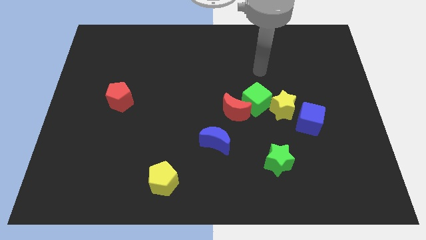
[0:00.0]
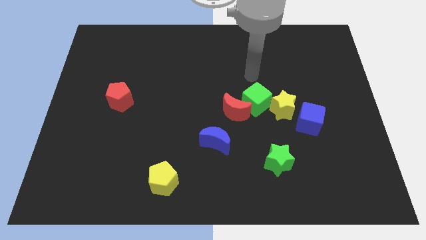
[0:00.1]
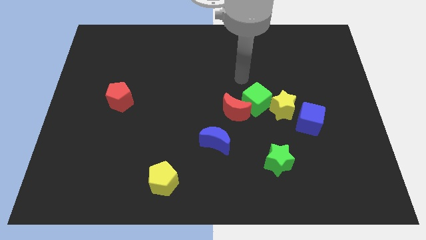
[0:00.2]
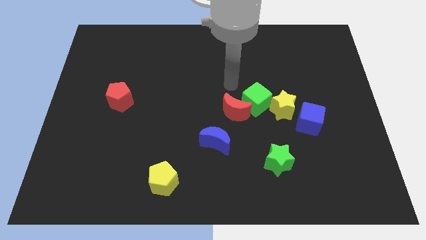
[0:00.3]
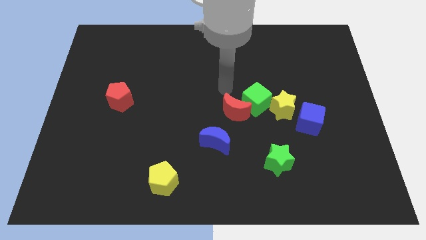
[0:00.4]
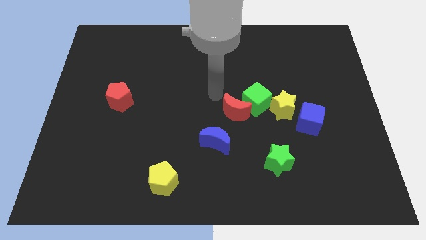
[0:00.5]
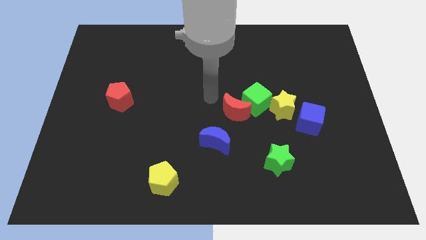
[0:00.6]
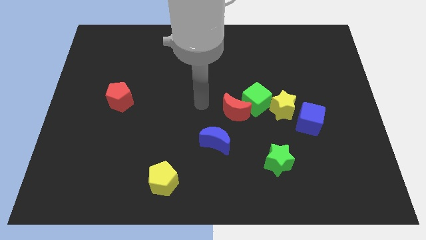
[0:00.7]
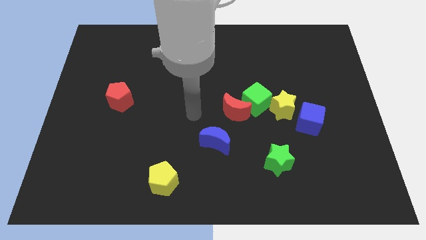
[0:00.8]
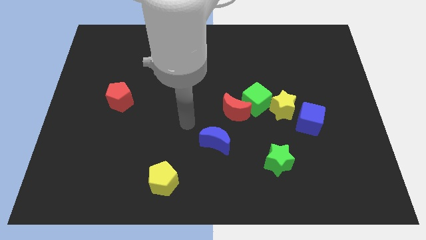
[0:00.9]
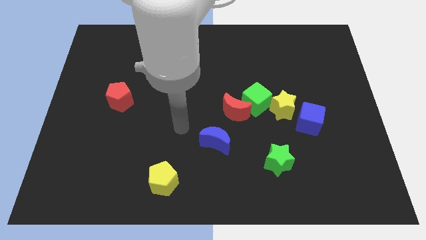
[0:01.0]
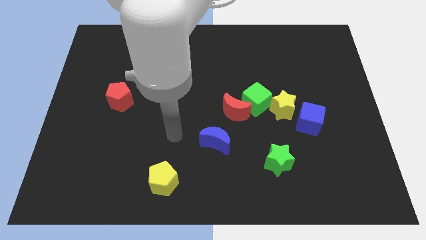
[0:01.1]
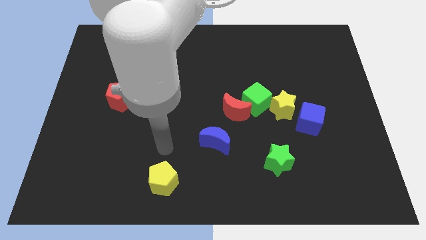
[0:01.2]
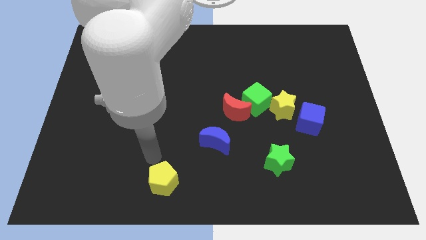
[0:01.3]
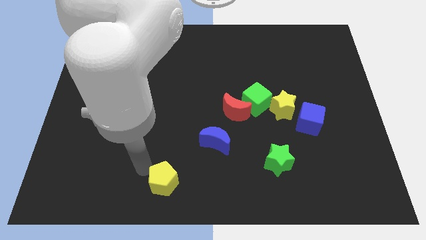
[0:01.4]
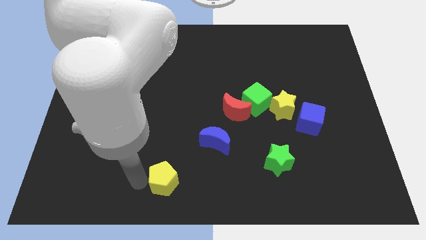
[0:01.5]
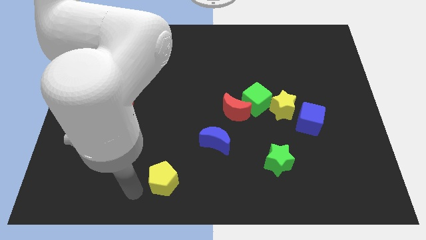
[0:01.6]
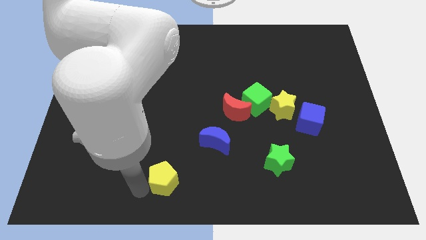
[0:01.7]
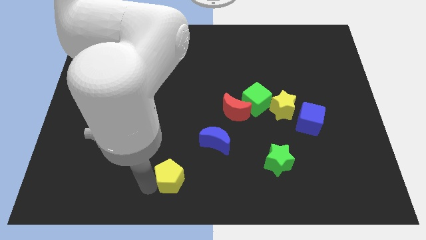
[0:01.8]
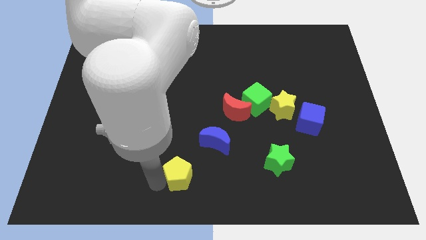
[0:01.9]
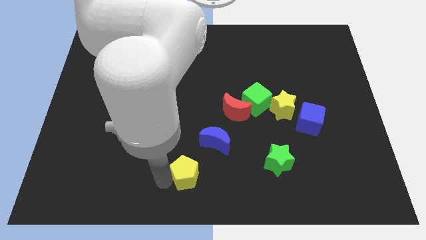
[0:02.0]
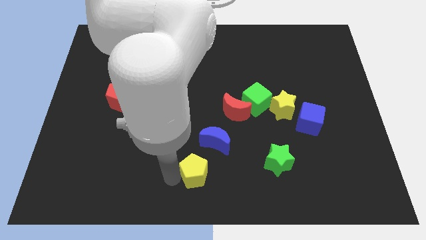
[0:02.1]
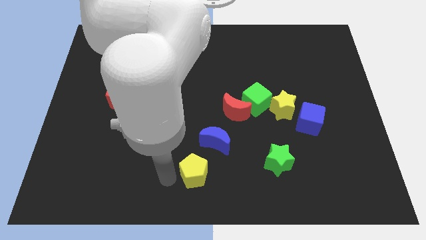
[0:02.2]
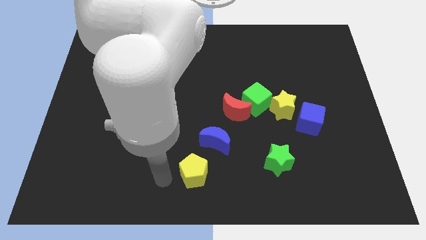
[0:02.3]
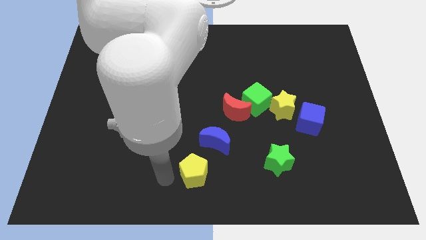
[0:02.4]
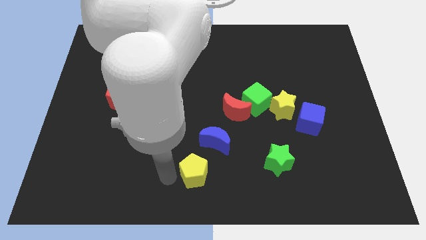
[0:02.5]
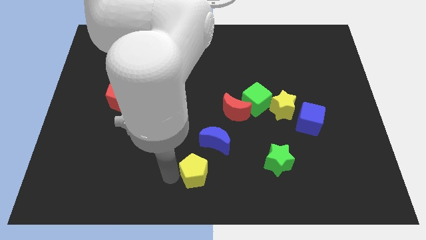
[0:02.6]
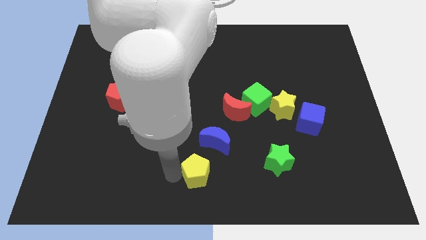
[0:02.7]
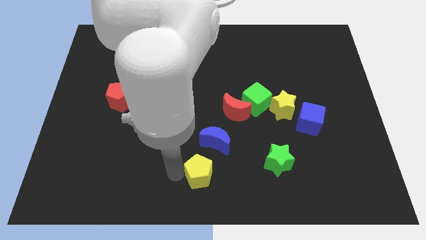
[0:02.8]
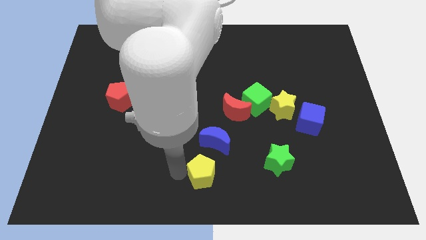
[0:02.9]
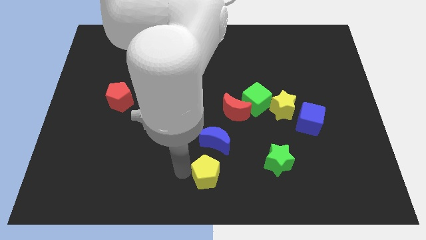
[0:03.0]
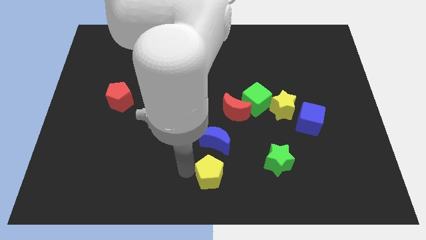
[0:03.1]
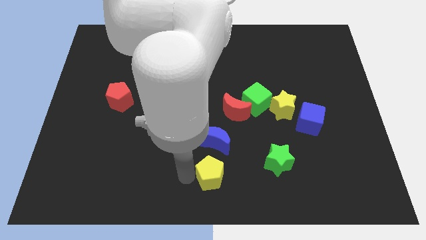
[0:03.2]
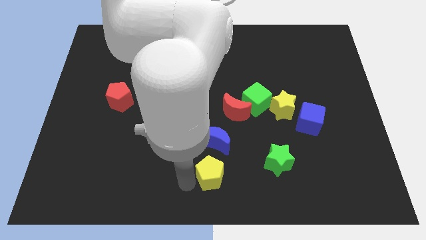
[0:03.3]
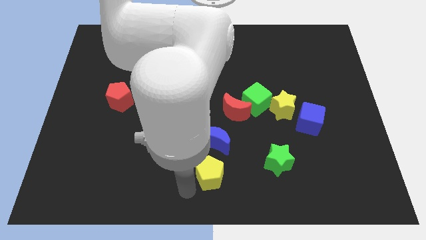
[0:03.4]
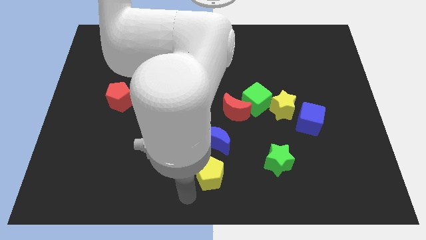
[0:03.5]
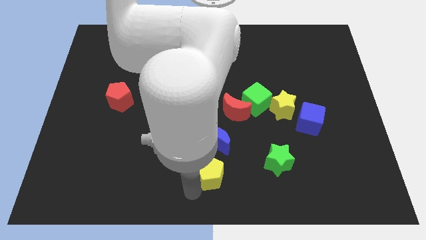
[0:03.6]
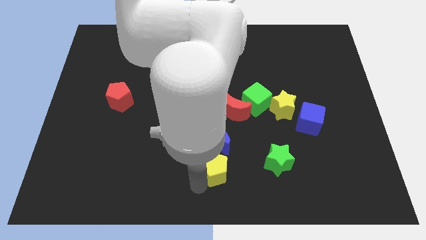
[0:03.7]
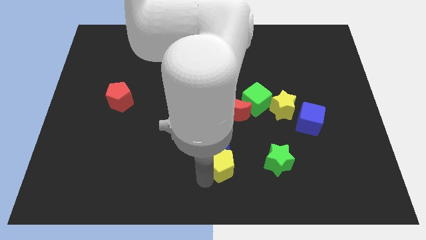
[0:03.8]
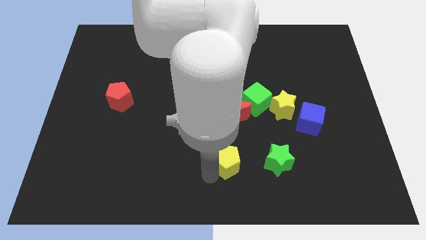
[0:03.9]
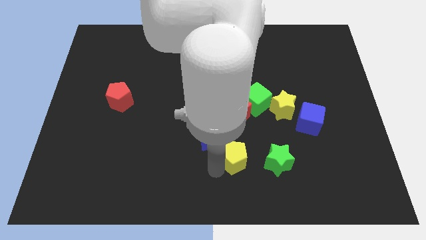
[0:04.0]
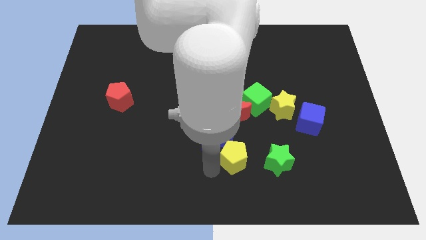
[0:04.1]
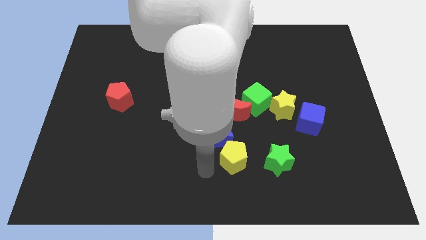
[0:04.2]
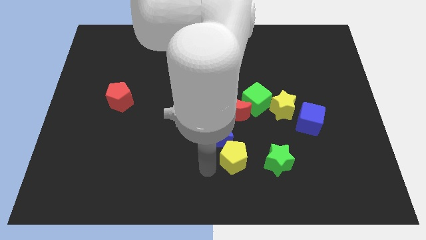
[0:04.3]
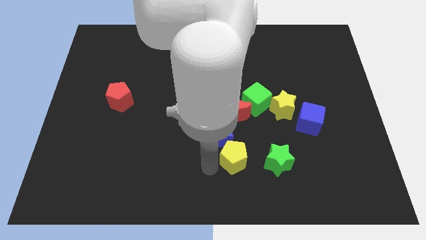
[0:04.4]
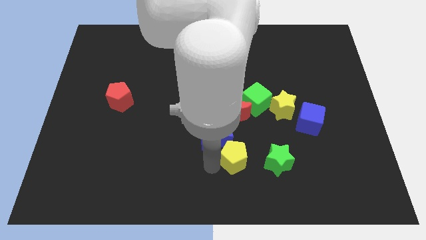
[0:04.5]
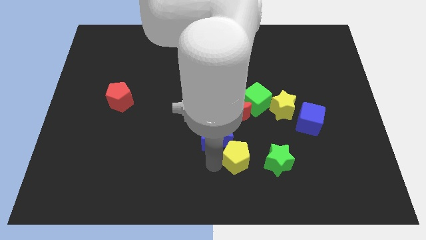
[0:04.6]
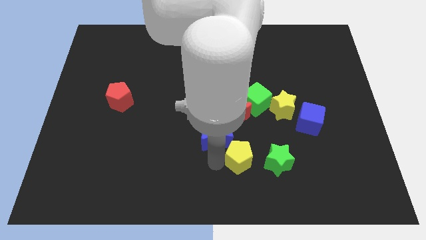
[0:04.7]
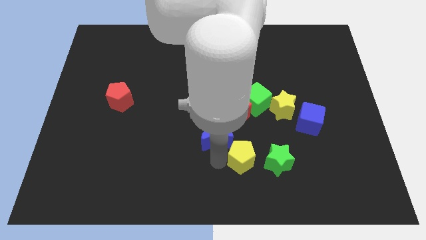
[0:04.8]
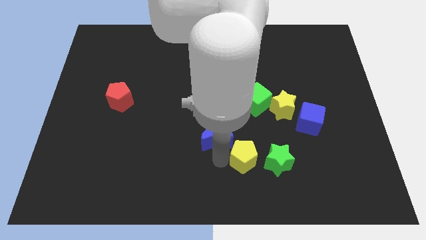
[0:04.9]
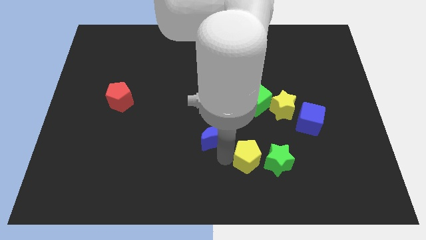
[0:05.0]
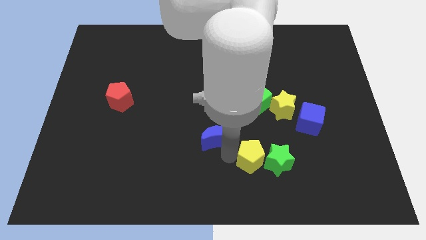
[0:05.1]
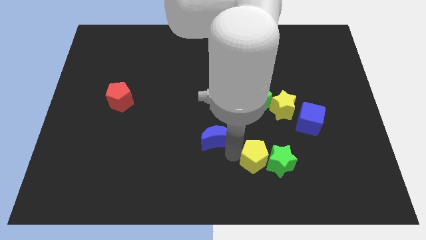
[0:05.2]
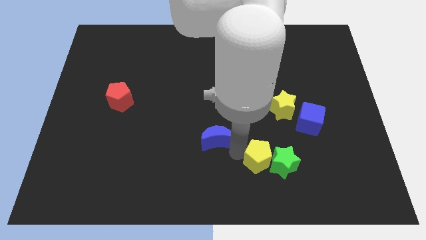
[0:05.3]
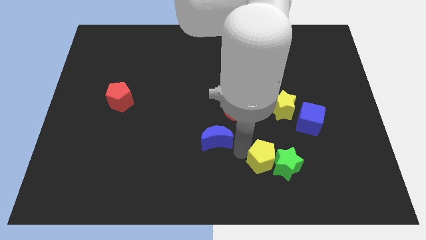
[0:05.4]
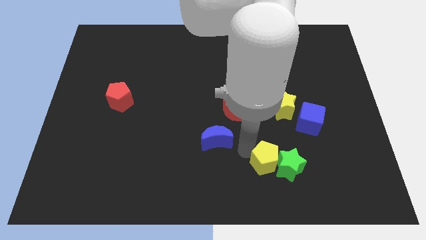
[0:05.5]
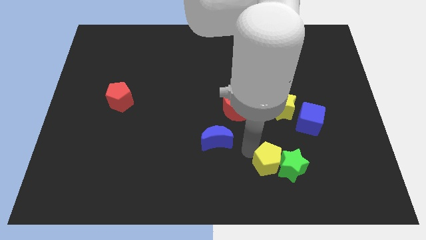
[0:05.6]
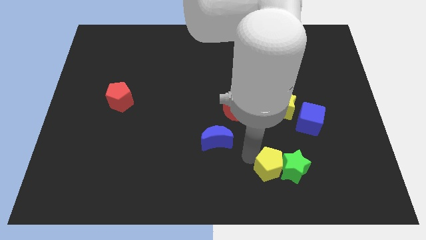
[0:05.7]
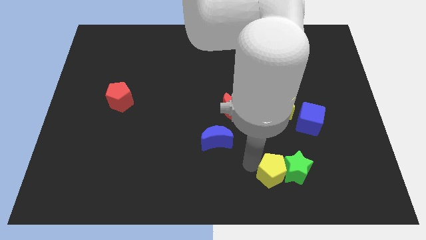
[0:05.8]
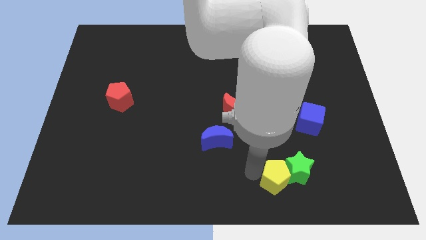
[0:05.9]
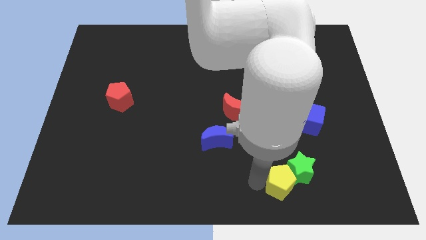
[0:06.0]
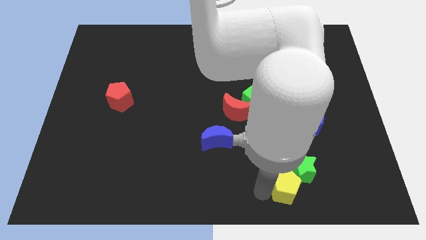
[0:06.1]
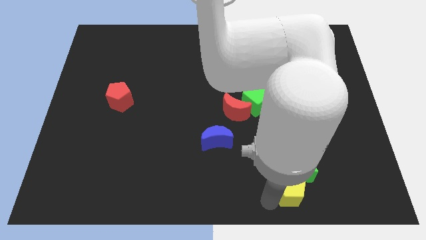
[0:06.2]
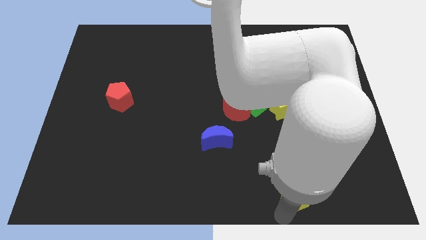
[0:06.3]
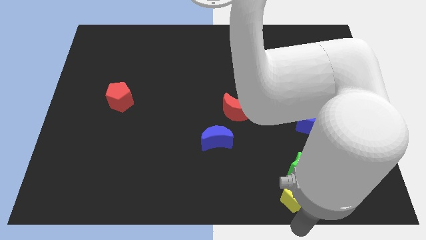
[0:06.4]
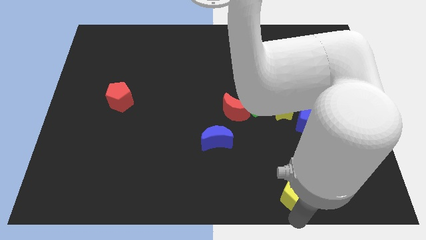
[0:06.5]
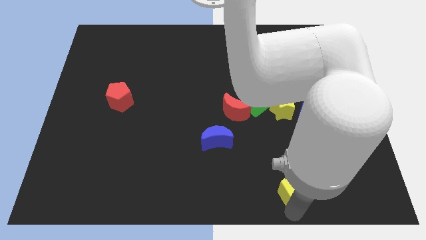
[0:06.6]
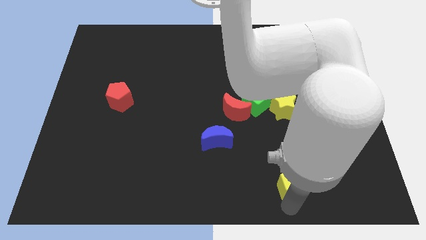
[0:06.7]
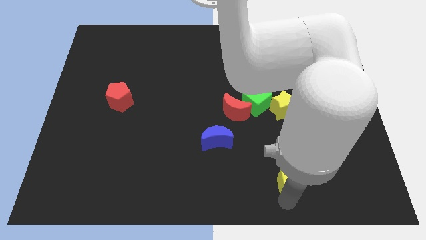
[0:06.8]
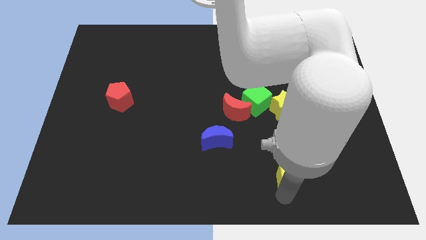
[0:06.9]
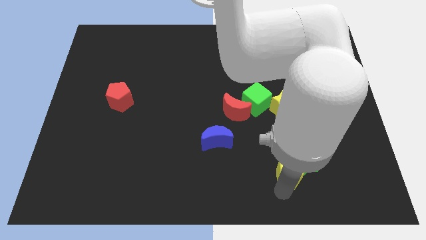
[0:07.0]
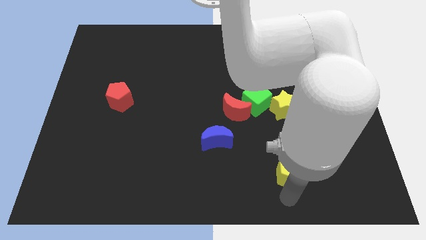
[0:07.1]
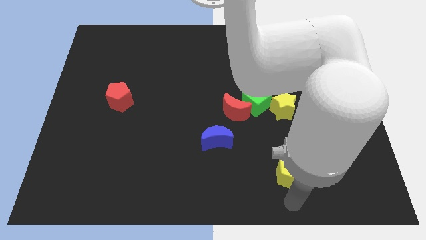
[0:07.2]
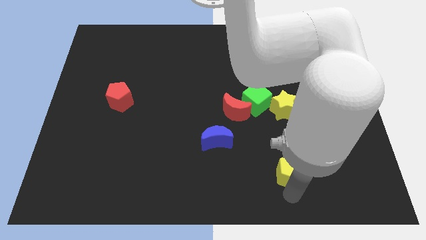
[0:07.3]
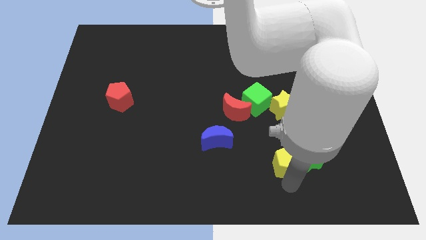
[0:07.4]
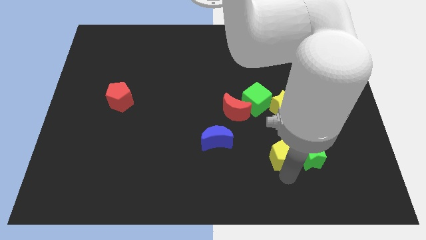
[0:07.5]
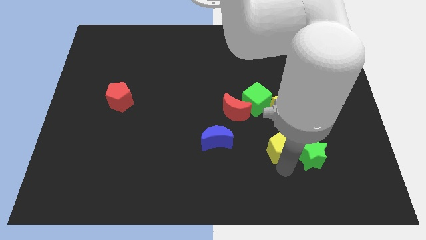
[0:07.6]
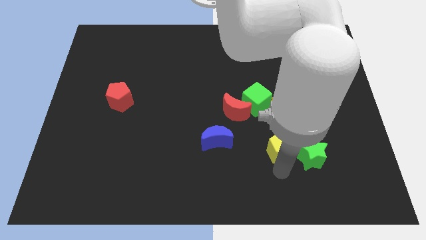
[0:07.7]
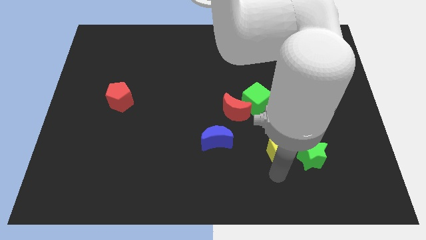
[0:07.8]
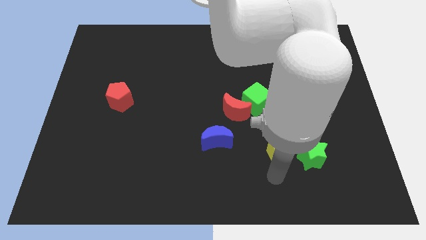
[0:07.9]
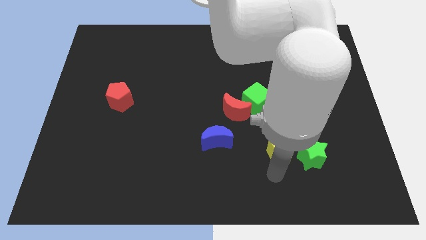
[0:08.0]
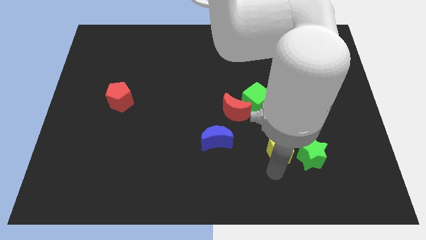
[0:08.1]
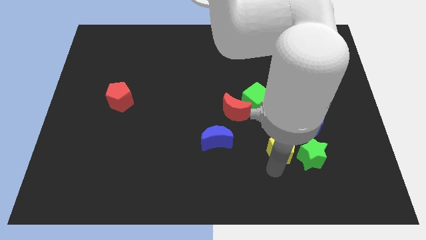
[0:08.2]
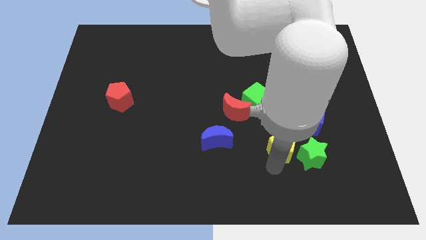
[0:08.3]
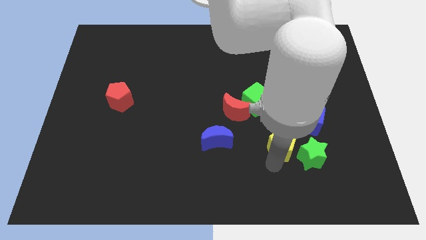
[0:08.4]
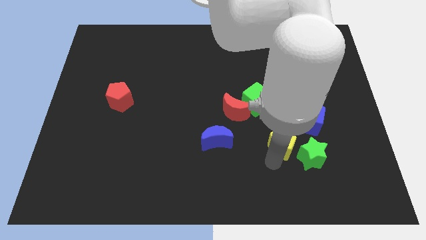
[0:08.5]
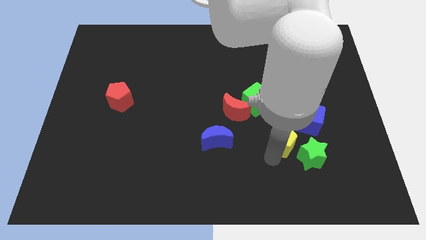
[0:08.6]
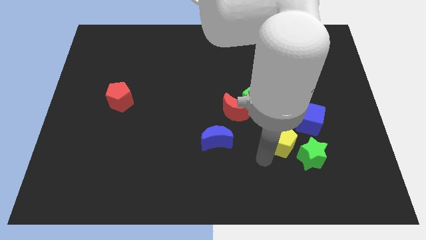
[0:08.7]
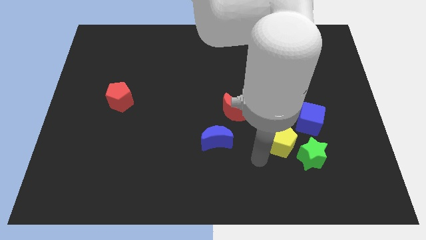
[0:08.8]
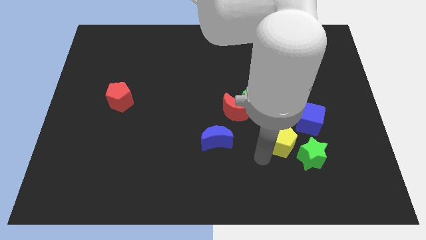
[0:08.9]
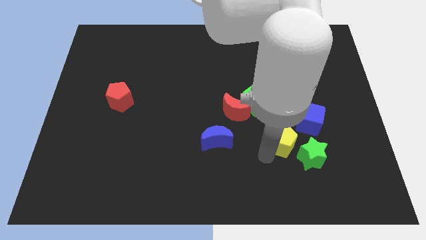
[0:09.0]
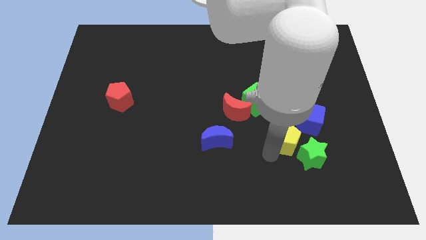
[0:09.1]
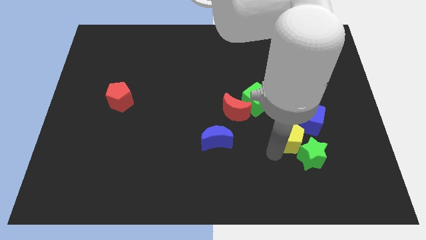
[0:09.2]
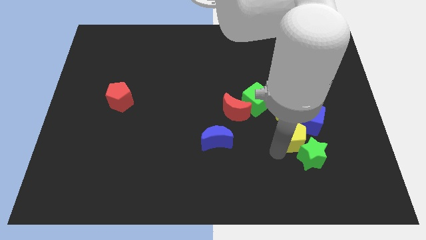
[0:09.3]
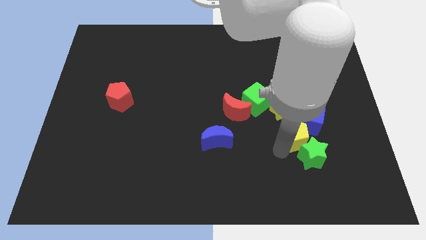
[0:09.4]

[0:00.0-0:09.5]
move the yellow pentagon next to the blue cube
